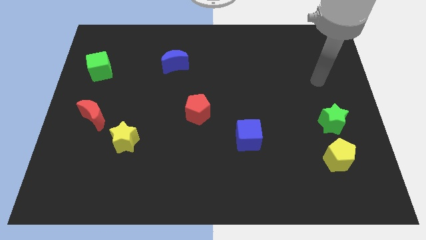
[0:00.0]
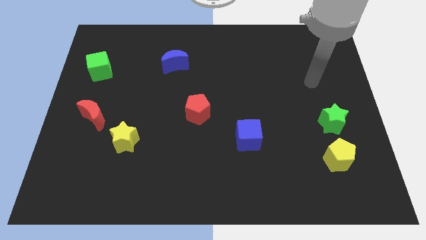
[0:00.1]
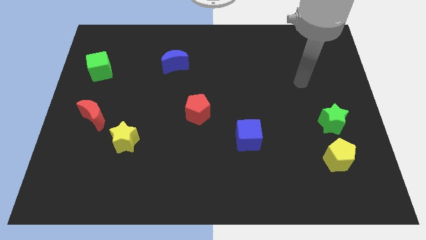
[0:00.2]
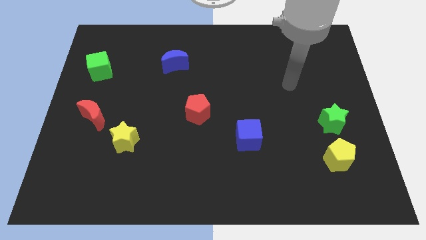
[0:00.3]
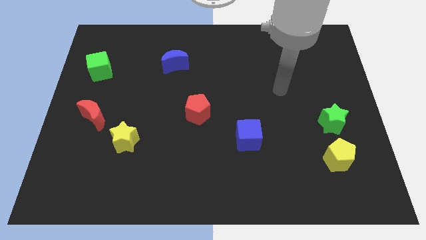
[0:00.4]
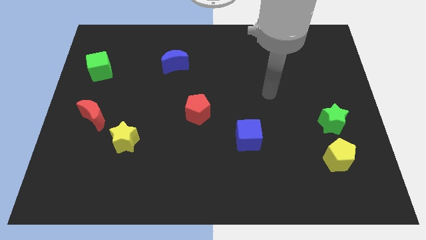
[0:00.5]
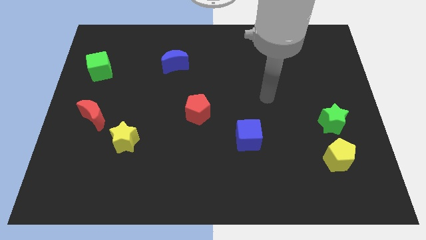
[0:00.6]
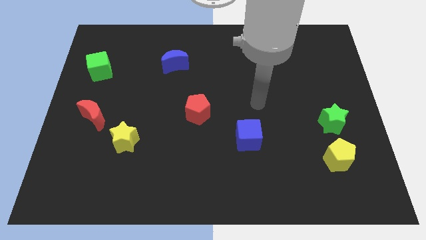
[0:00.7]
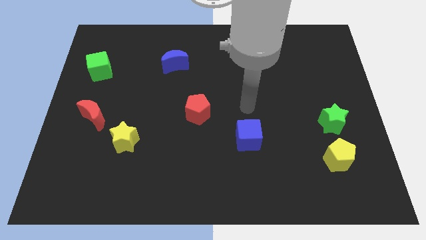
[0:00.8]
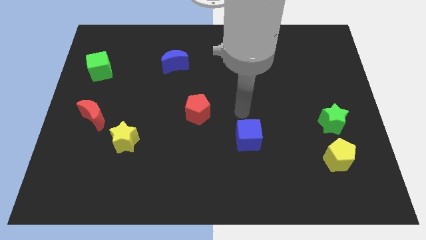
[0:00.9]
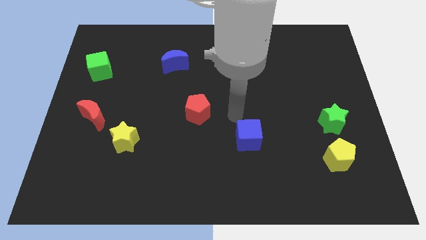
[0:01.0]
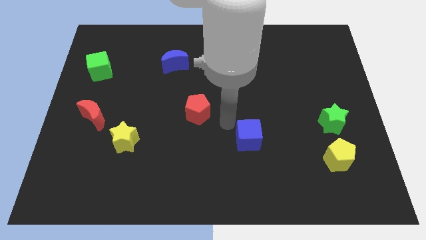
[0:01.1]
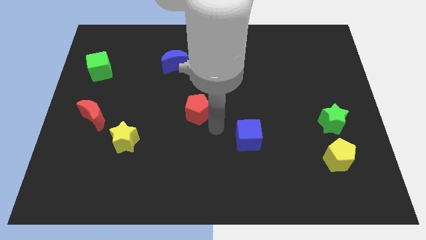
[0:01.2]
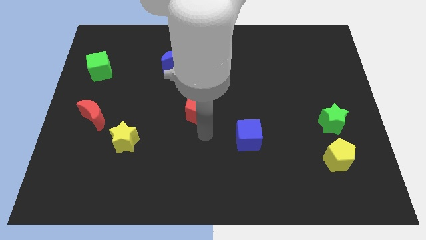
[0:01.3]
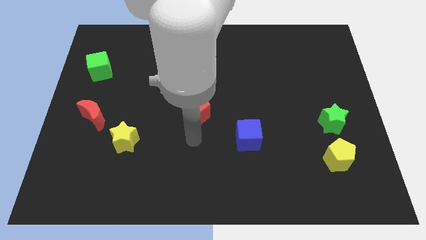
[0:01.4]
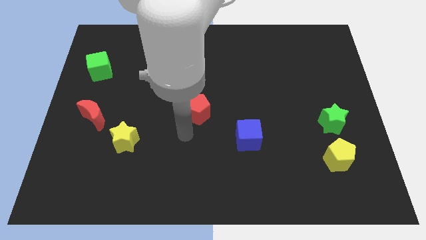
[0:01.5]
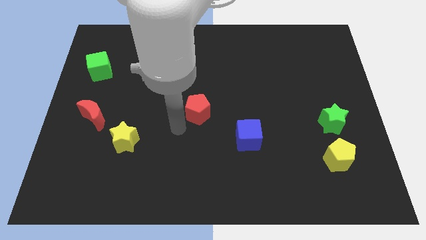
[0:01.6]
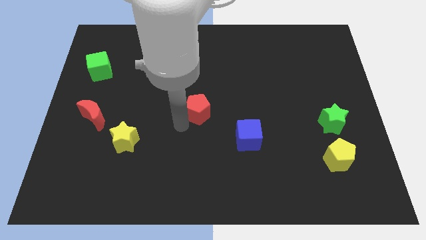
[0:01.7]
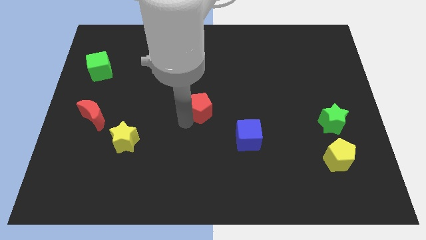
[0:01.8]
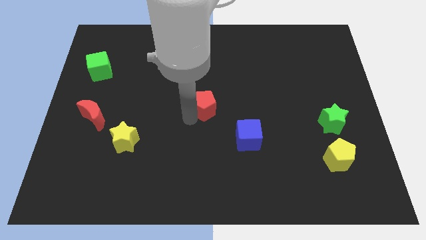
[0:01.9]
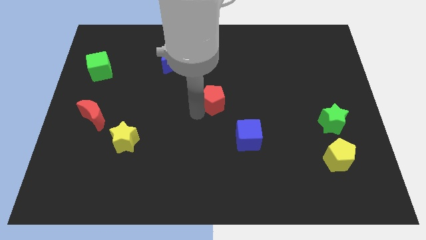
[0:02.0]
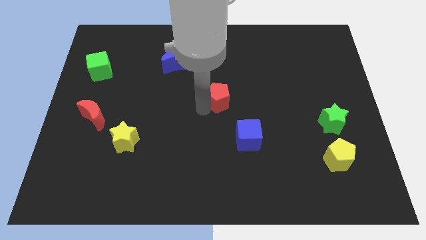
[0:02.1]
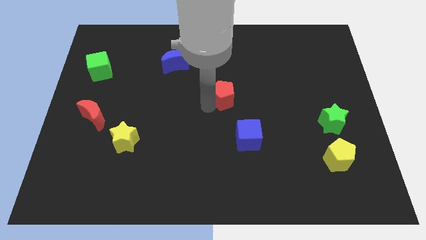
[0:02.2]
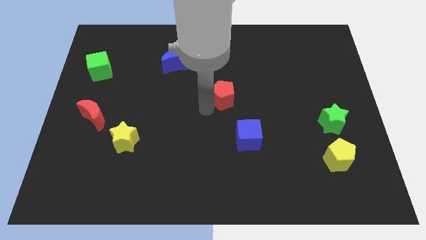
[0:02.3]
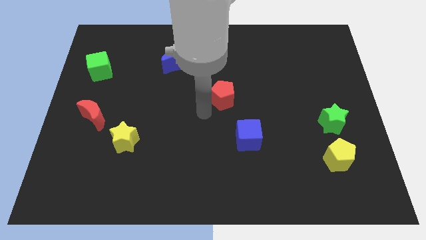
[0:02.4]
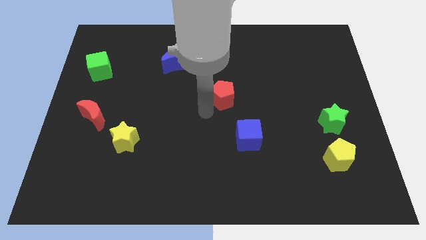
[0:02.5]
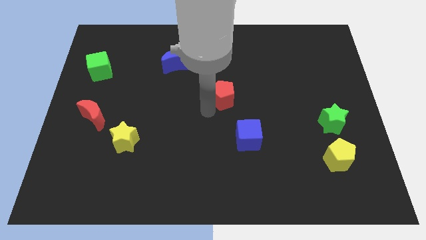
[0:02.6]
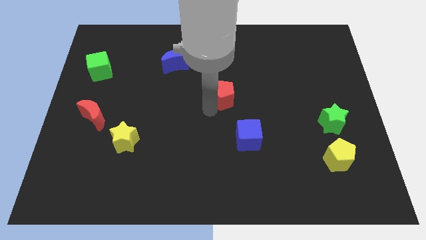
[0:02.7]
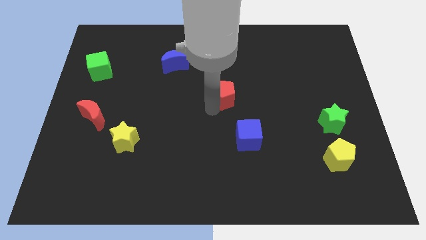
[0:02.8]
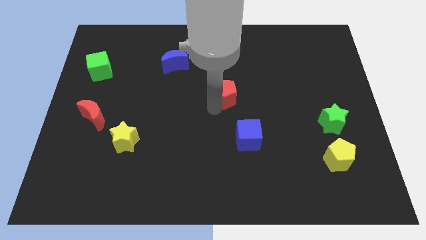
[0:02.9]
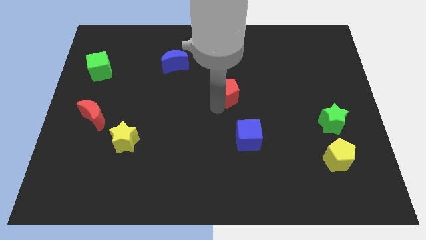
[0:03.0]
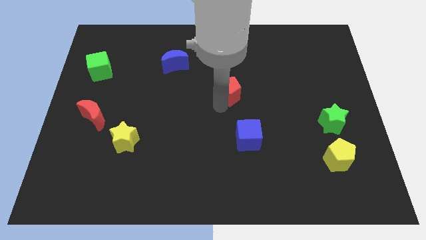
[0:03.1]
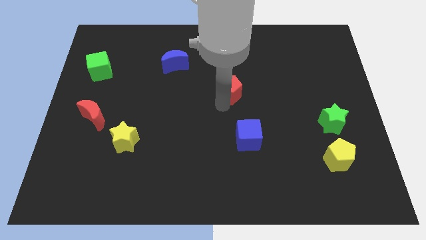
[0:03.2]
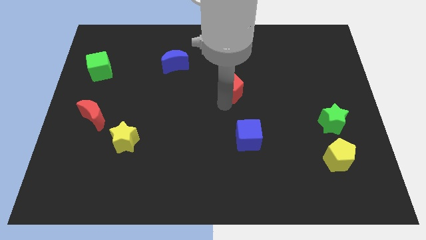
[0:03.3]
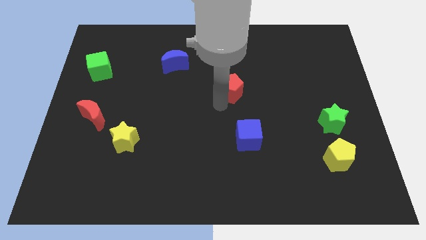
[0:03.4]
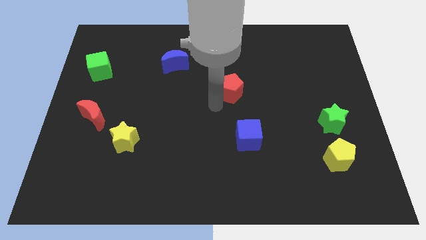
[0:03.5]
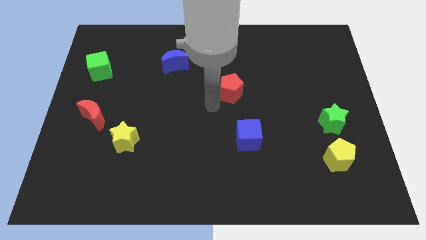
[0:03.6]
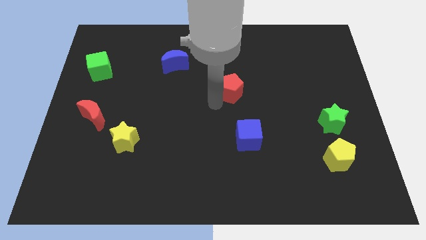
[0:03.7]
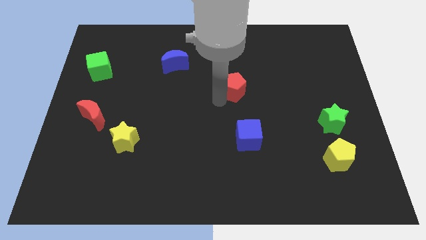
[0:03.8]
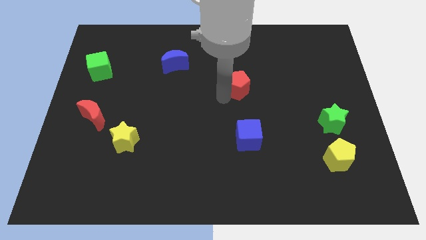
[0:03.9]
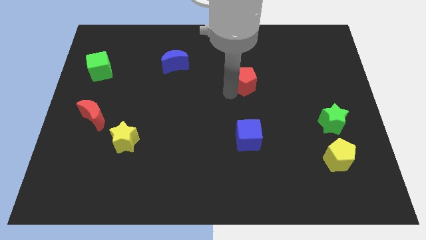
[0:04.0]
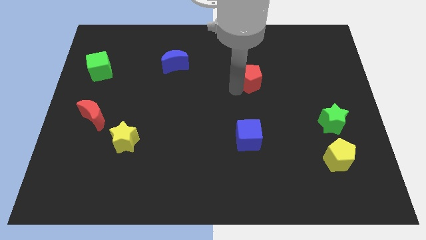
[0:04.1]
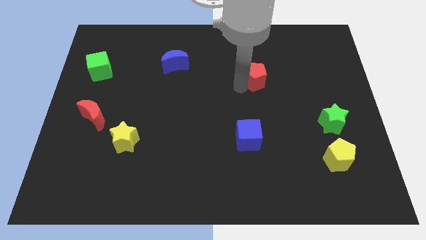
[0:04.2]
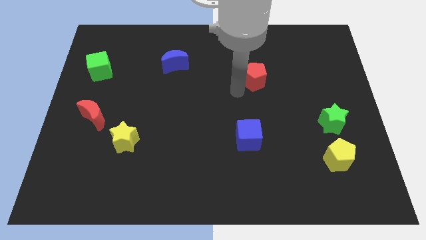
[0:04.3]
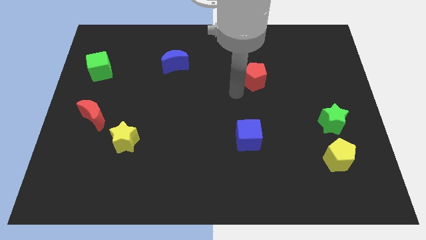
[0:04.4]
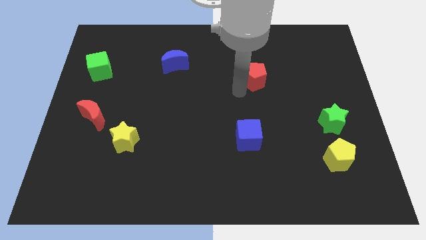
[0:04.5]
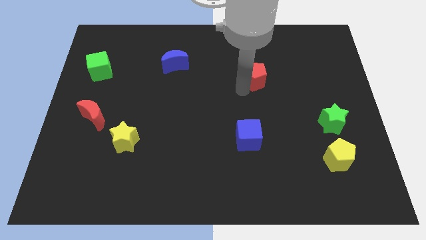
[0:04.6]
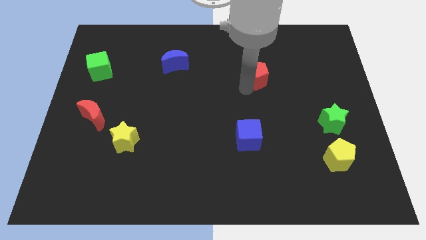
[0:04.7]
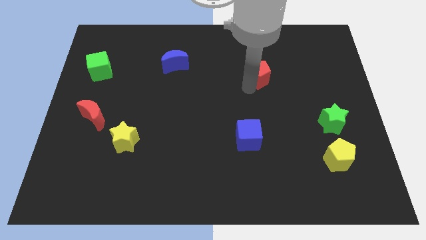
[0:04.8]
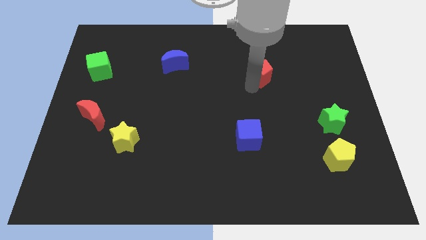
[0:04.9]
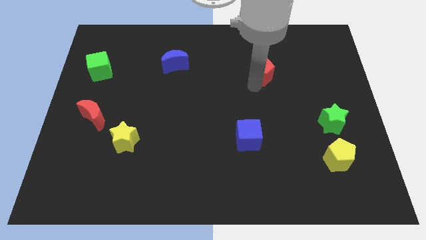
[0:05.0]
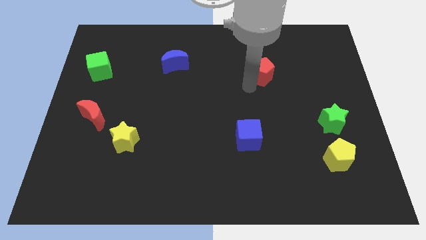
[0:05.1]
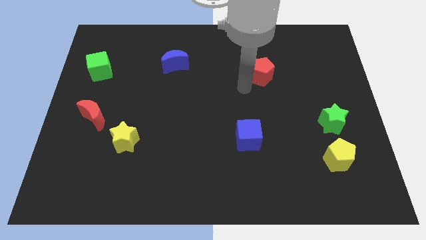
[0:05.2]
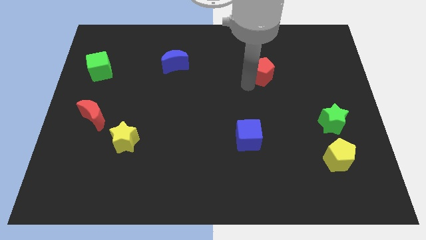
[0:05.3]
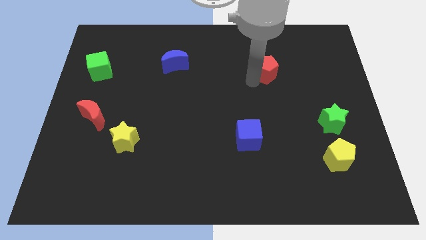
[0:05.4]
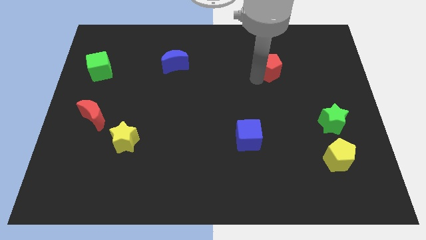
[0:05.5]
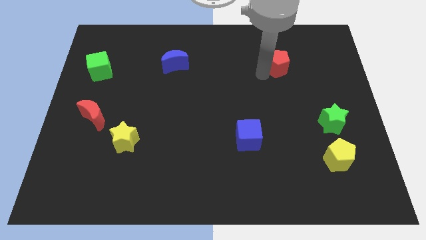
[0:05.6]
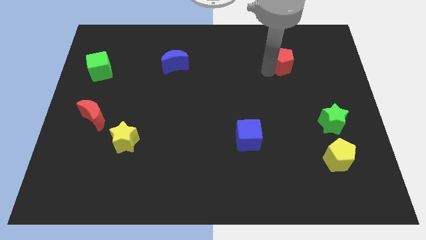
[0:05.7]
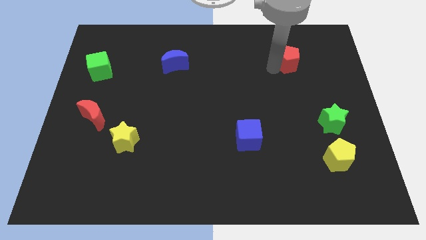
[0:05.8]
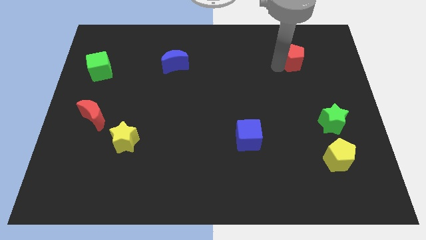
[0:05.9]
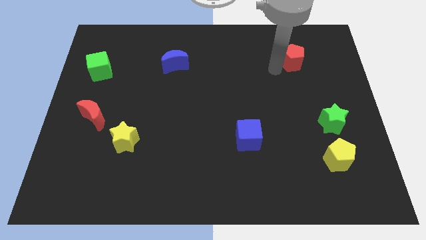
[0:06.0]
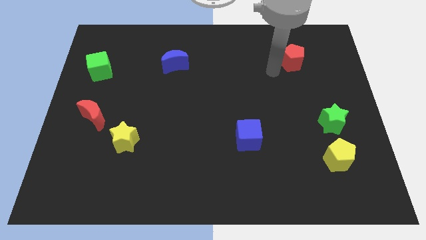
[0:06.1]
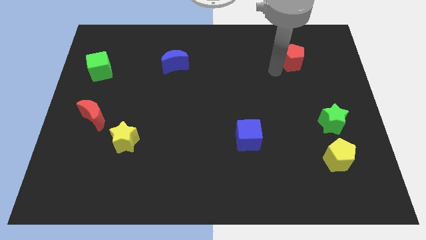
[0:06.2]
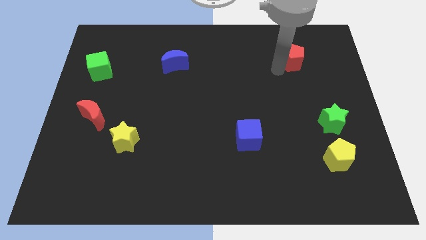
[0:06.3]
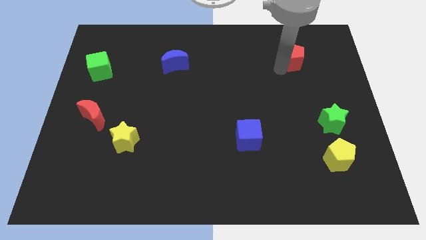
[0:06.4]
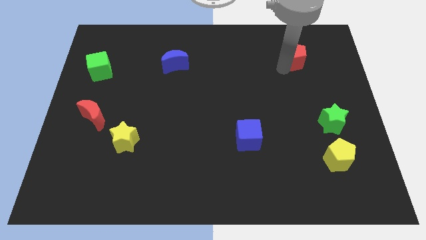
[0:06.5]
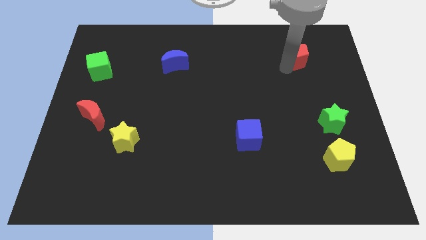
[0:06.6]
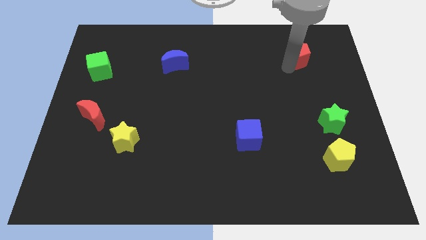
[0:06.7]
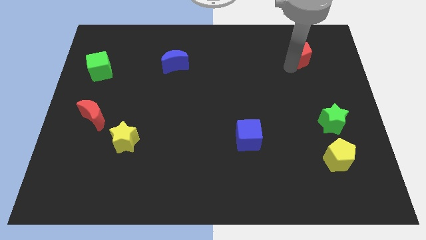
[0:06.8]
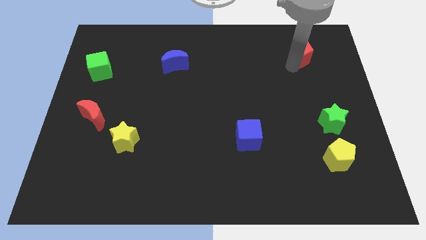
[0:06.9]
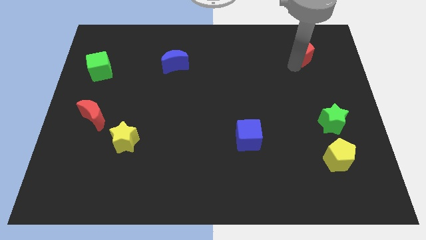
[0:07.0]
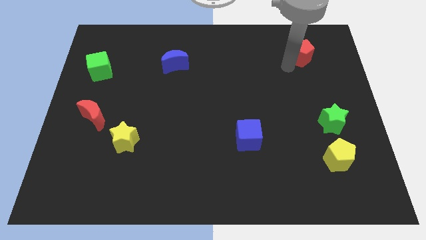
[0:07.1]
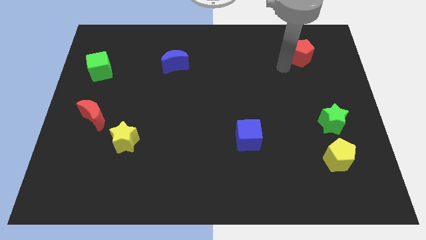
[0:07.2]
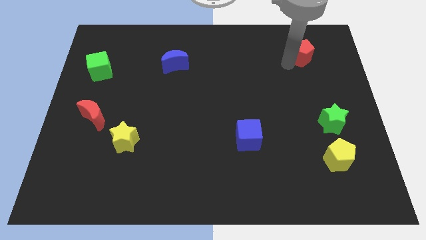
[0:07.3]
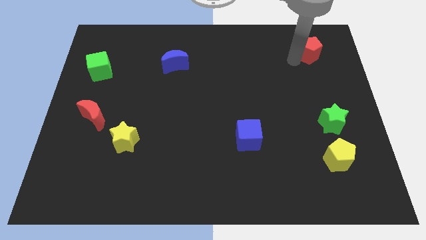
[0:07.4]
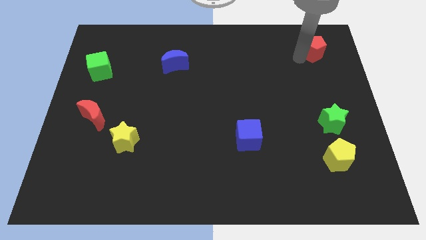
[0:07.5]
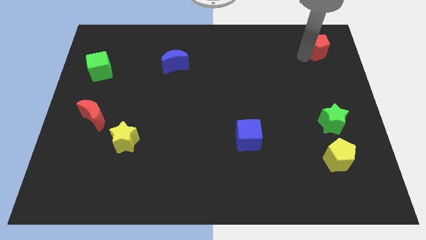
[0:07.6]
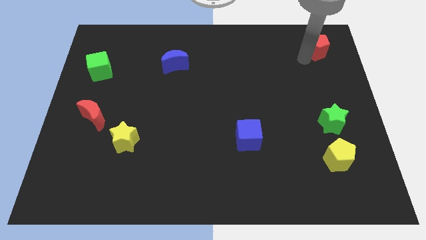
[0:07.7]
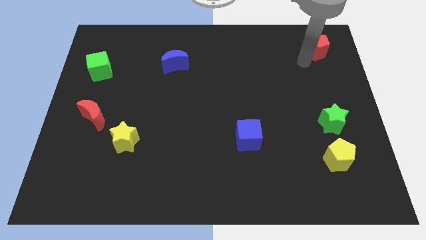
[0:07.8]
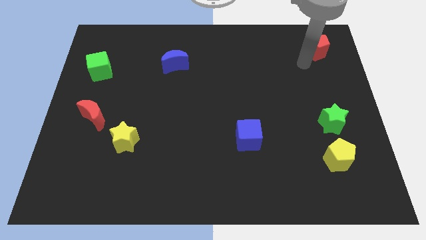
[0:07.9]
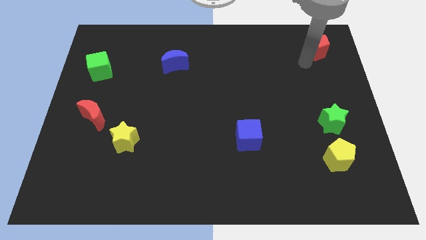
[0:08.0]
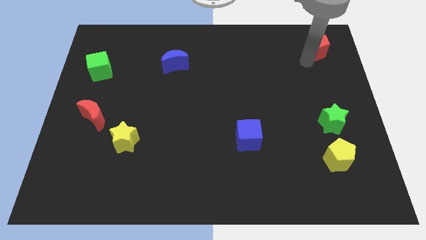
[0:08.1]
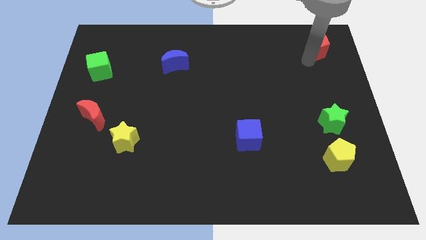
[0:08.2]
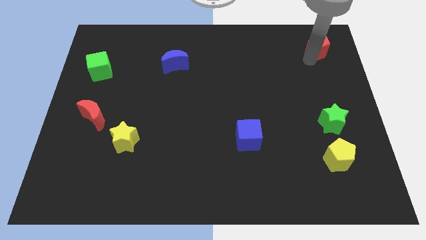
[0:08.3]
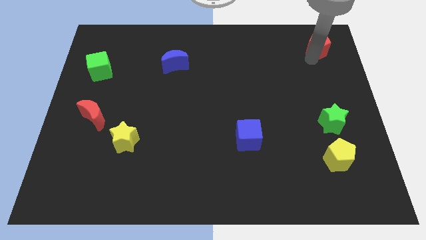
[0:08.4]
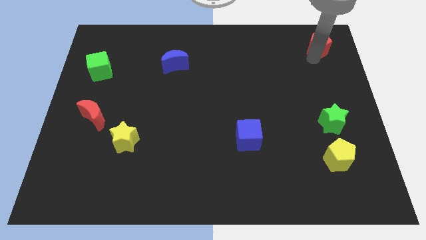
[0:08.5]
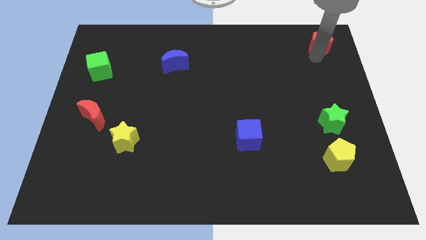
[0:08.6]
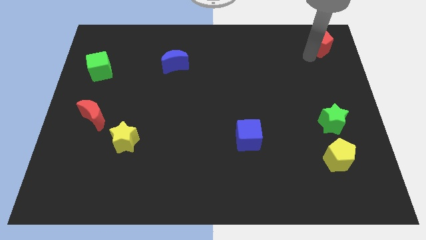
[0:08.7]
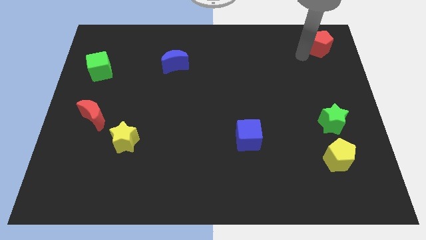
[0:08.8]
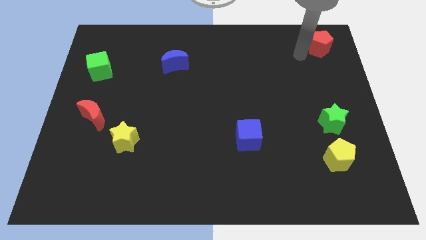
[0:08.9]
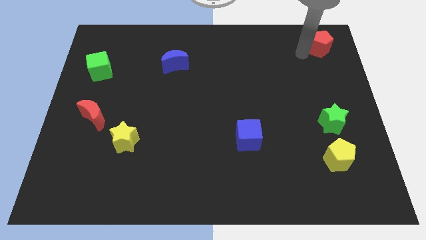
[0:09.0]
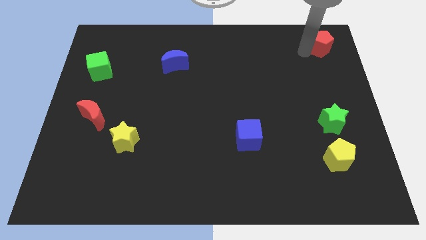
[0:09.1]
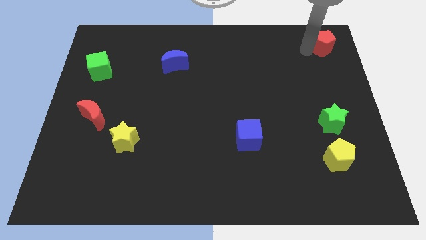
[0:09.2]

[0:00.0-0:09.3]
put the red pentagon to the upper right corner
